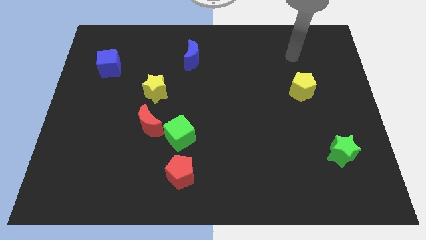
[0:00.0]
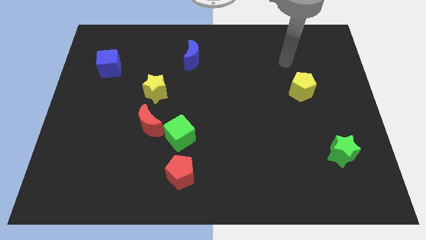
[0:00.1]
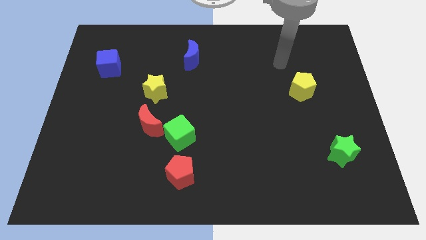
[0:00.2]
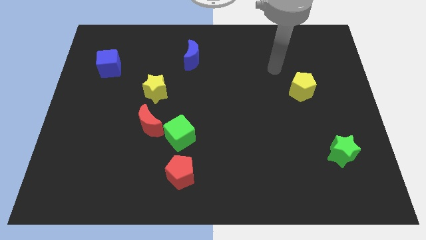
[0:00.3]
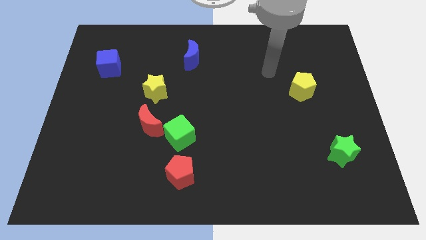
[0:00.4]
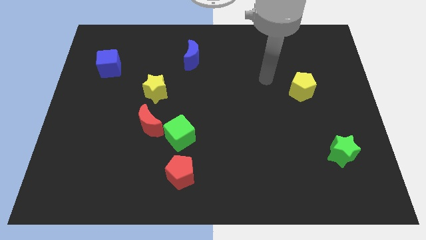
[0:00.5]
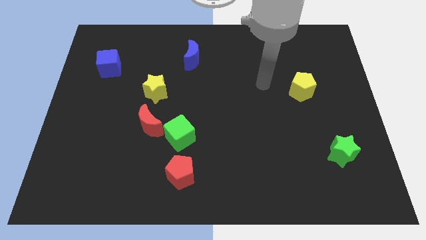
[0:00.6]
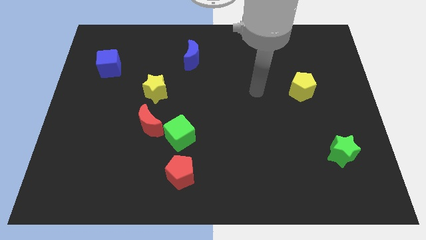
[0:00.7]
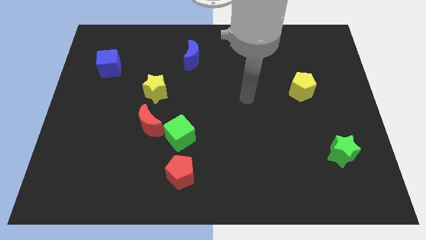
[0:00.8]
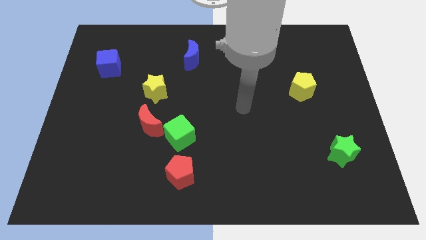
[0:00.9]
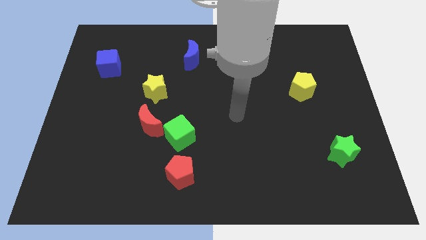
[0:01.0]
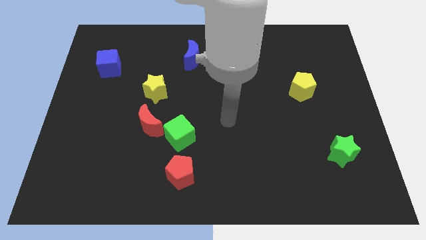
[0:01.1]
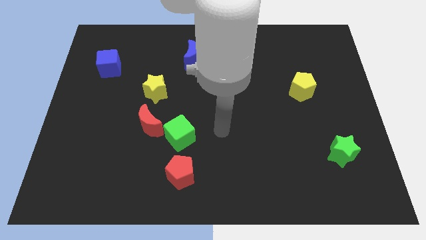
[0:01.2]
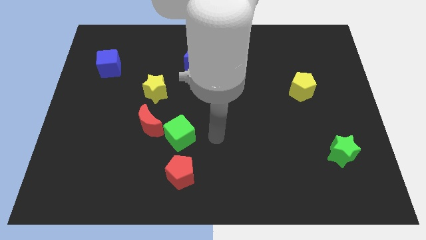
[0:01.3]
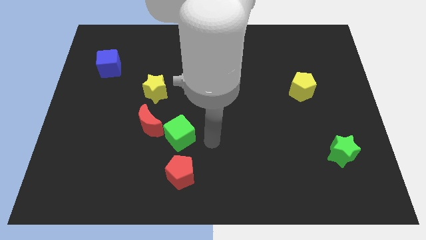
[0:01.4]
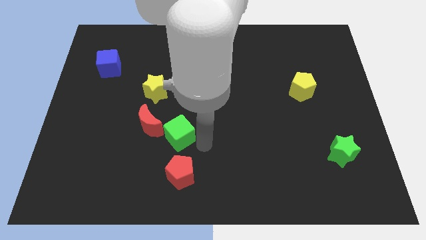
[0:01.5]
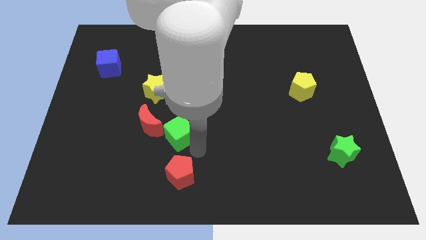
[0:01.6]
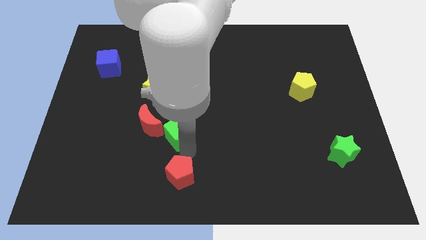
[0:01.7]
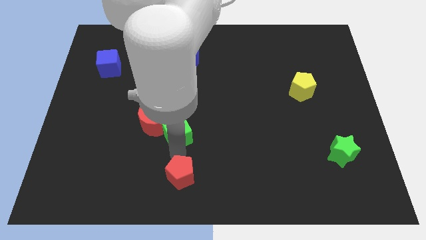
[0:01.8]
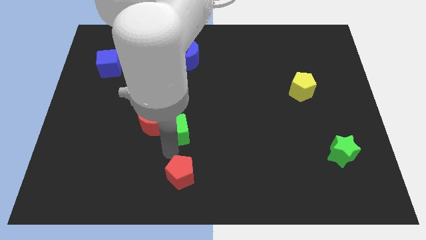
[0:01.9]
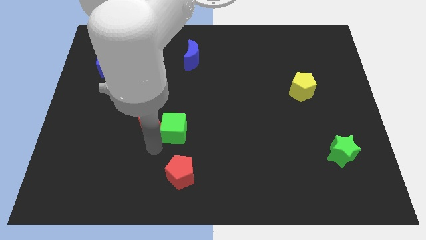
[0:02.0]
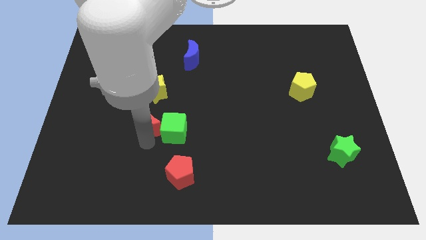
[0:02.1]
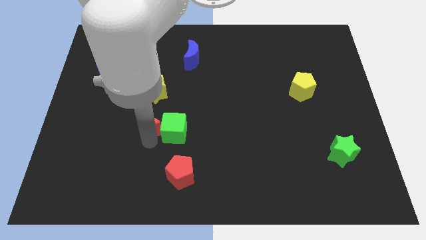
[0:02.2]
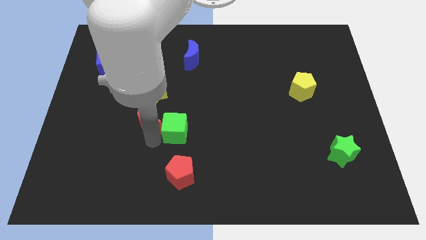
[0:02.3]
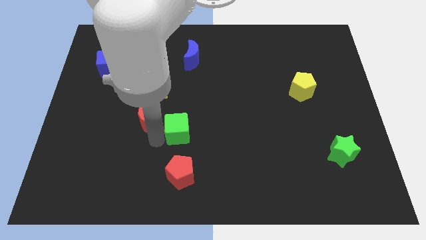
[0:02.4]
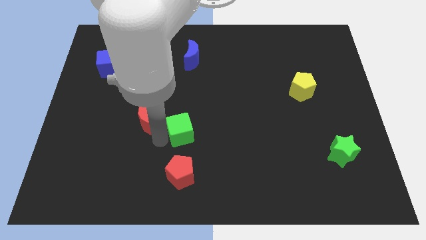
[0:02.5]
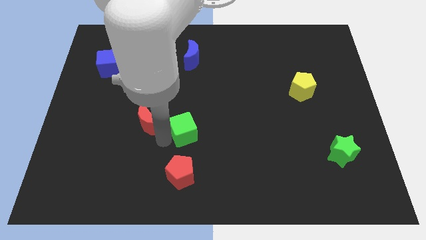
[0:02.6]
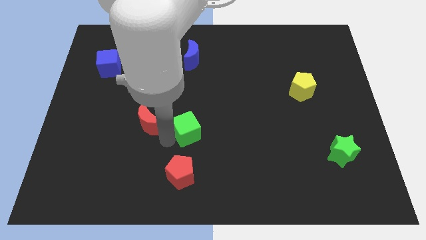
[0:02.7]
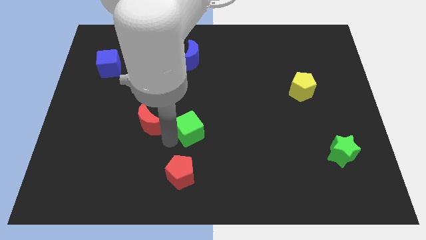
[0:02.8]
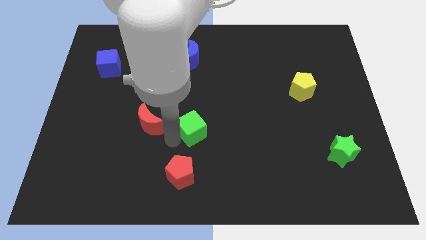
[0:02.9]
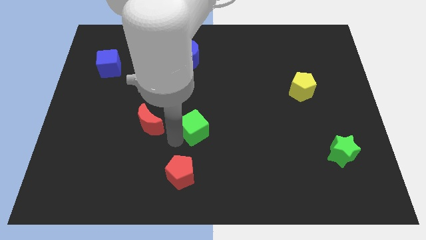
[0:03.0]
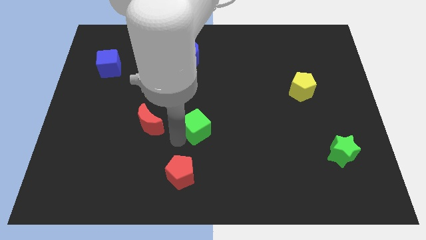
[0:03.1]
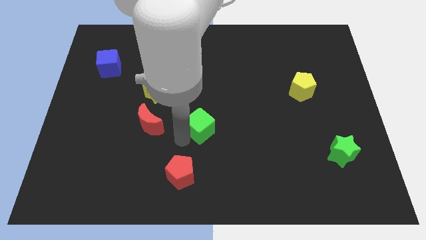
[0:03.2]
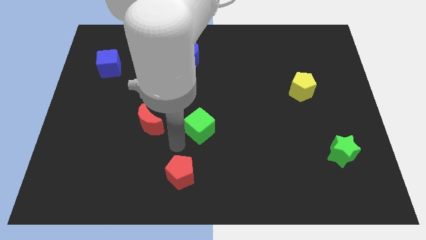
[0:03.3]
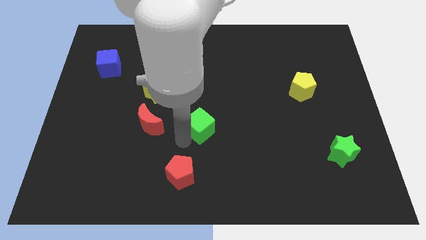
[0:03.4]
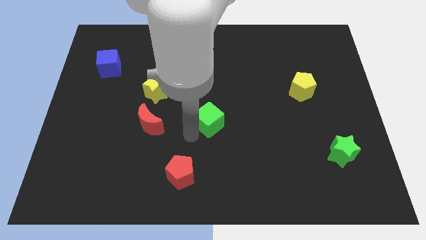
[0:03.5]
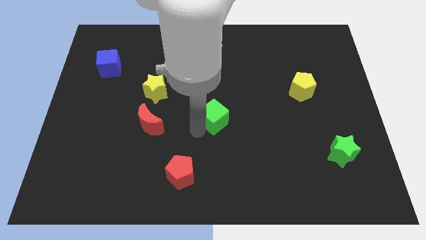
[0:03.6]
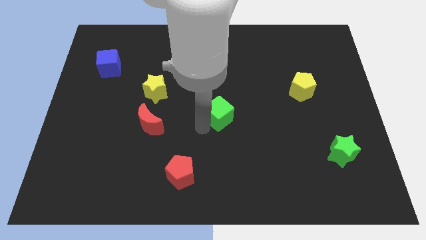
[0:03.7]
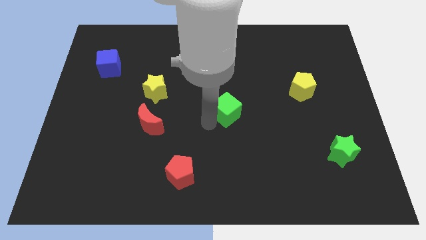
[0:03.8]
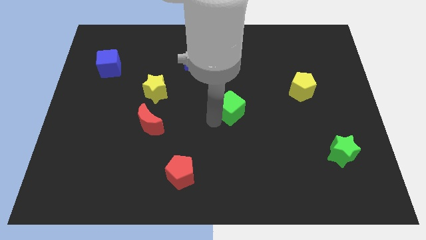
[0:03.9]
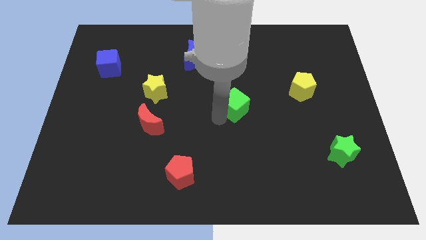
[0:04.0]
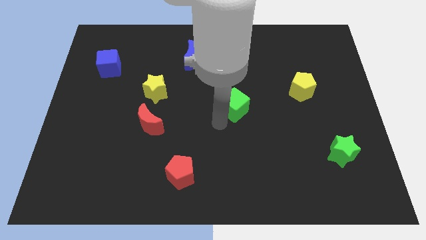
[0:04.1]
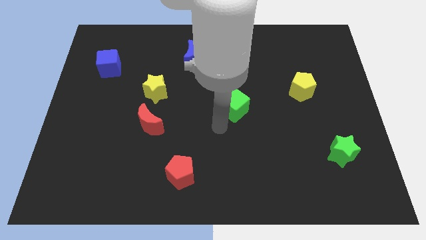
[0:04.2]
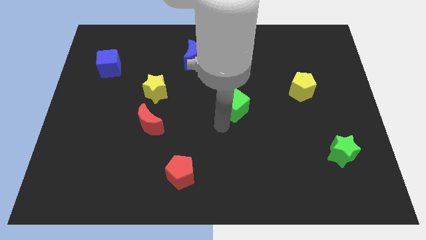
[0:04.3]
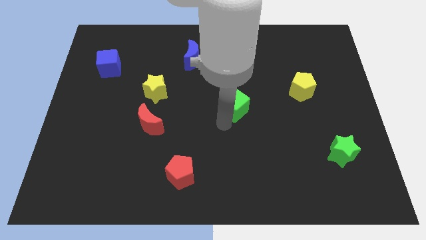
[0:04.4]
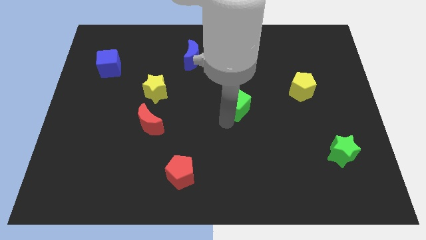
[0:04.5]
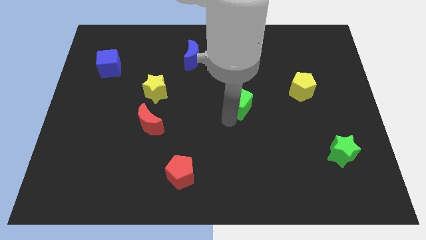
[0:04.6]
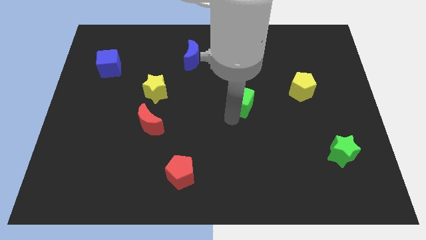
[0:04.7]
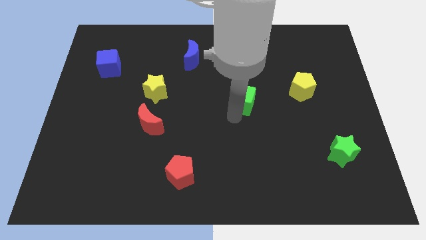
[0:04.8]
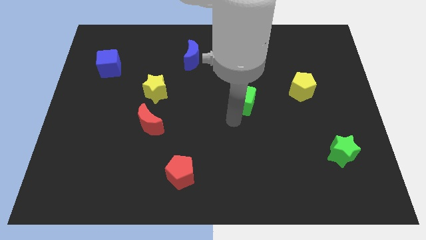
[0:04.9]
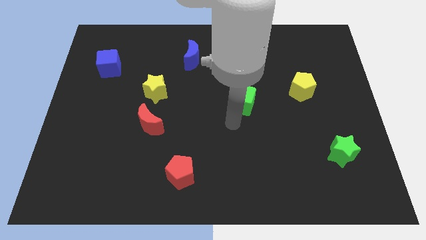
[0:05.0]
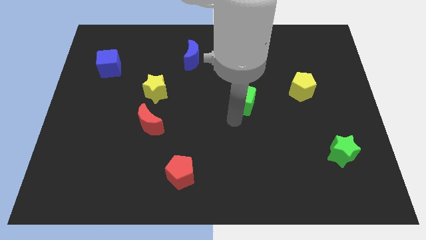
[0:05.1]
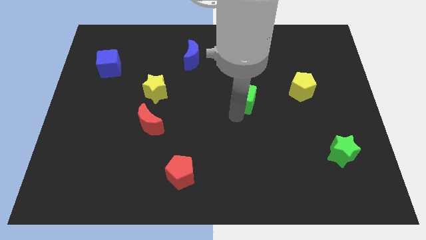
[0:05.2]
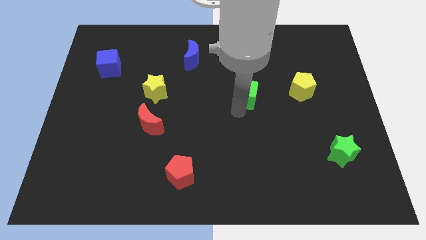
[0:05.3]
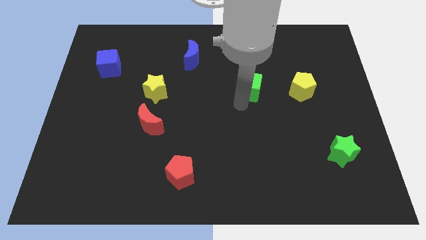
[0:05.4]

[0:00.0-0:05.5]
slide the green cube upwards and right diagonally

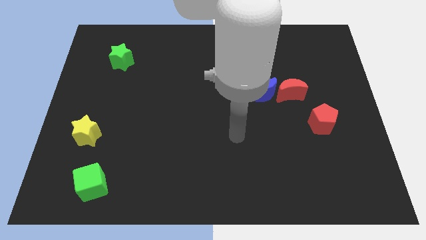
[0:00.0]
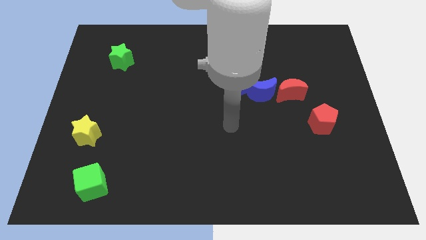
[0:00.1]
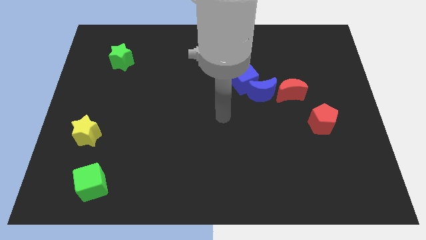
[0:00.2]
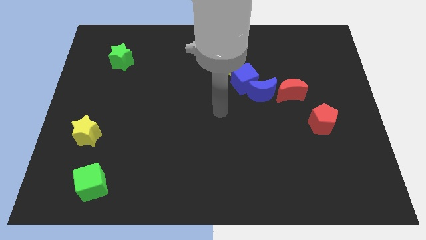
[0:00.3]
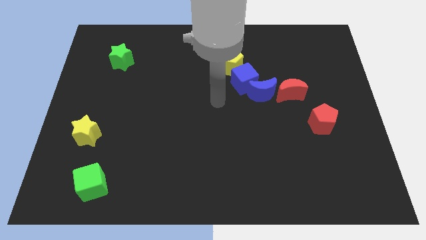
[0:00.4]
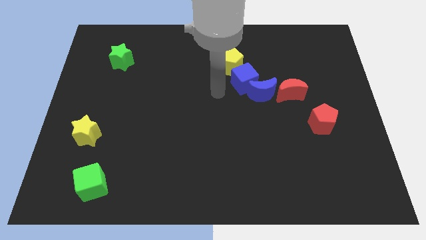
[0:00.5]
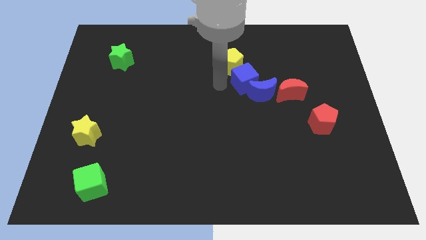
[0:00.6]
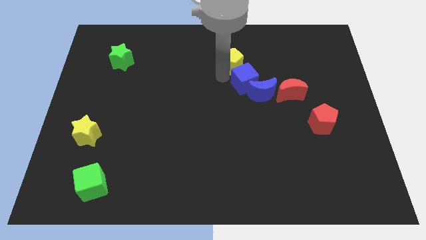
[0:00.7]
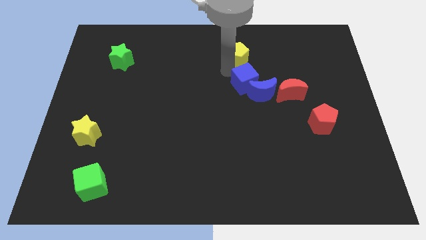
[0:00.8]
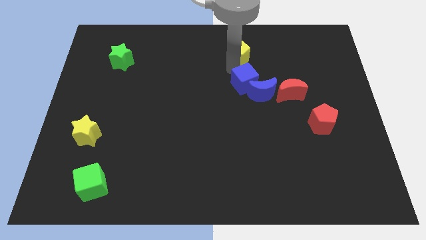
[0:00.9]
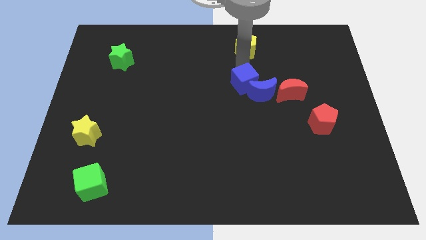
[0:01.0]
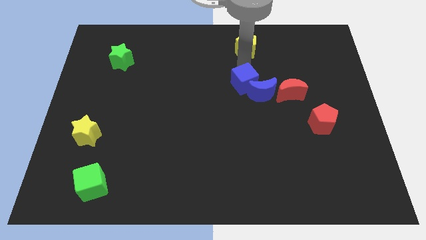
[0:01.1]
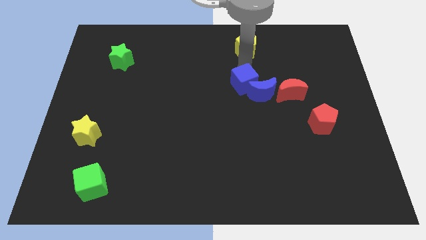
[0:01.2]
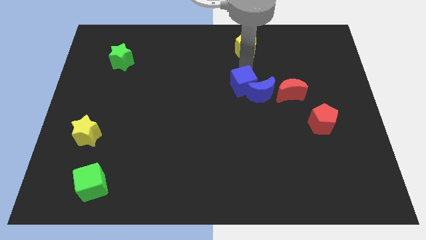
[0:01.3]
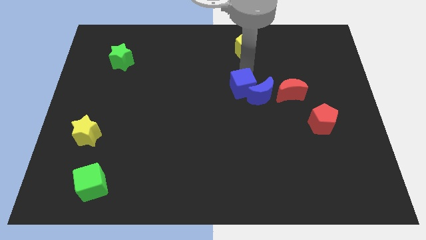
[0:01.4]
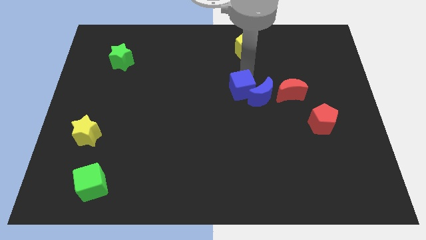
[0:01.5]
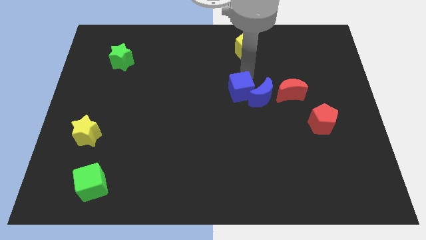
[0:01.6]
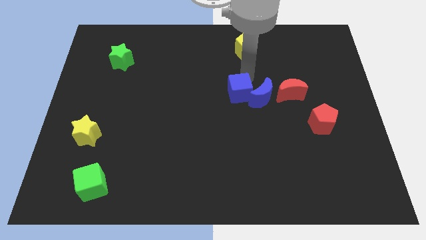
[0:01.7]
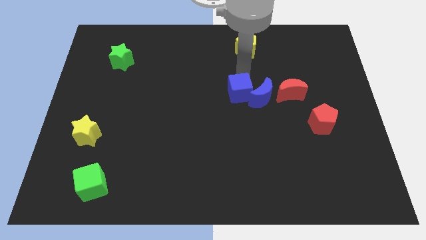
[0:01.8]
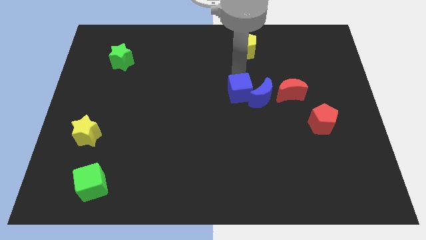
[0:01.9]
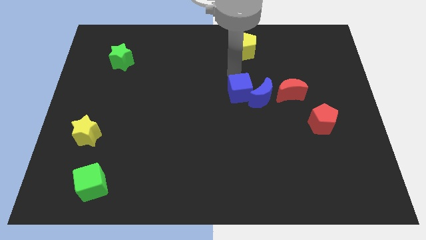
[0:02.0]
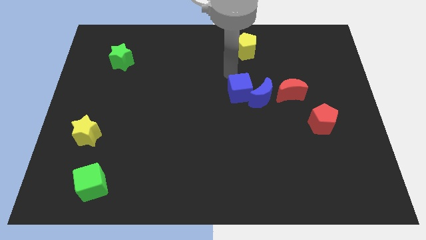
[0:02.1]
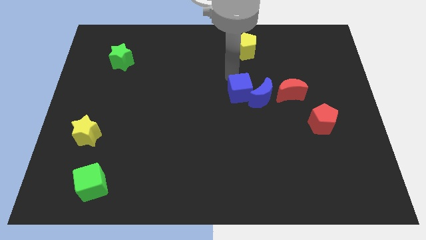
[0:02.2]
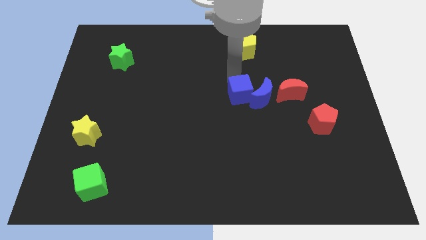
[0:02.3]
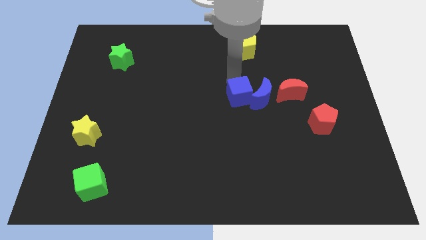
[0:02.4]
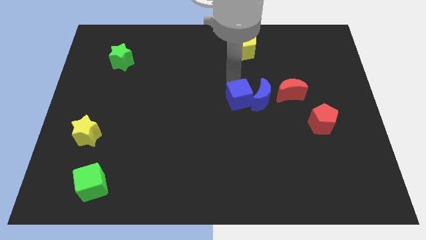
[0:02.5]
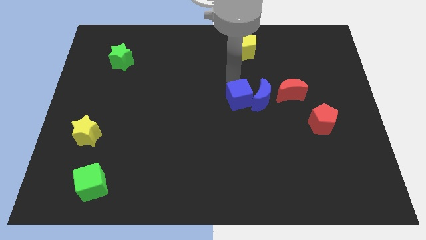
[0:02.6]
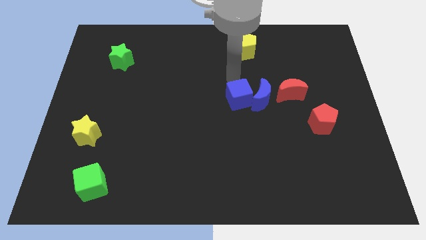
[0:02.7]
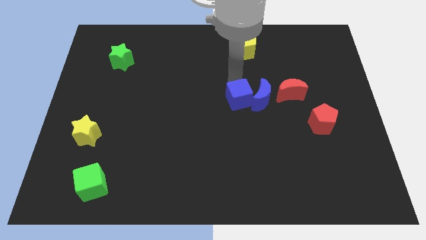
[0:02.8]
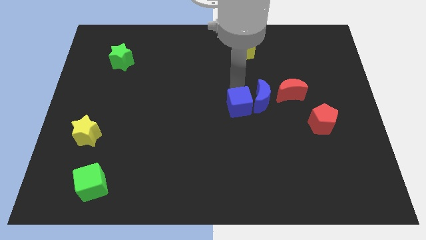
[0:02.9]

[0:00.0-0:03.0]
slightly push the blue cube down
